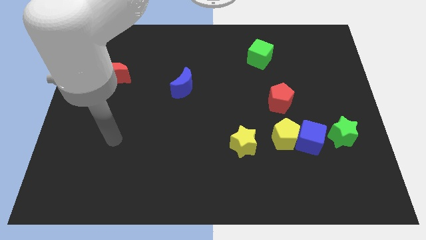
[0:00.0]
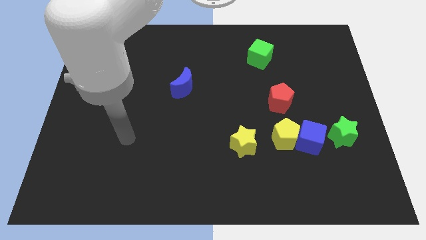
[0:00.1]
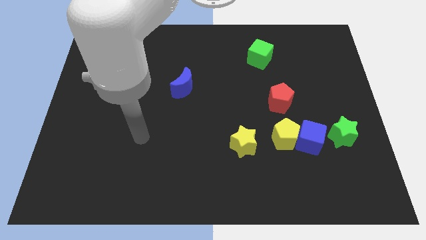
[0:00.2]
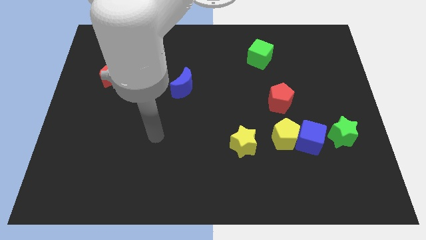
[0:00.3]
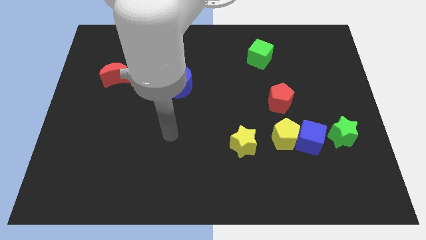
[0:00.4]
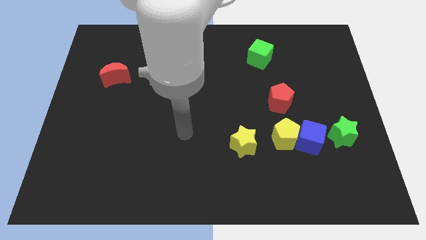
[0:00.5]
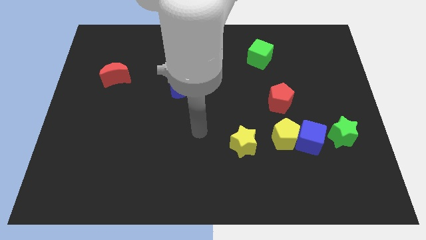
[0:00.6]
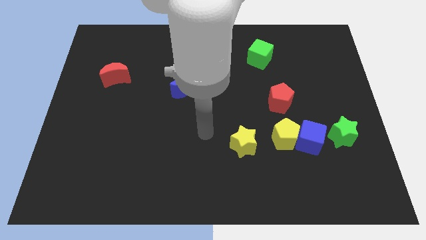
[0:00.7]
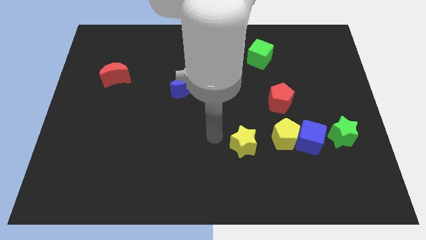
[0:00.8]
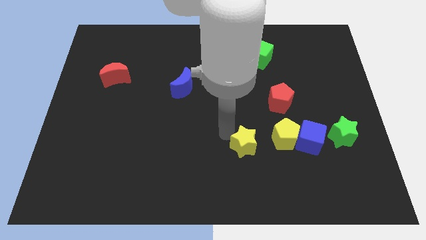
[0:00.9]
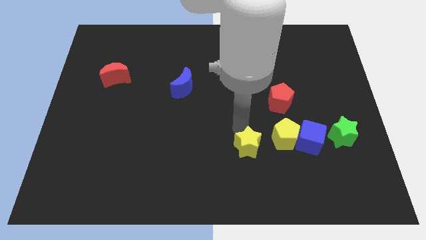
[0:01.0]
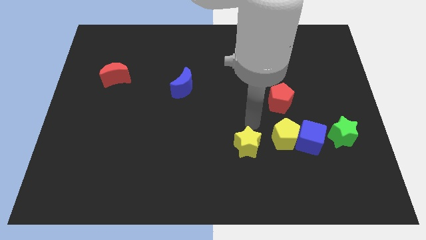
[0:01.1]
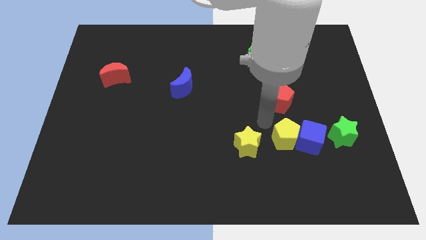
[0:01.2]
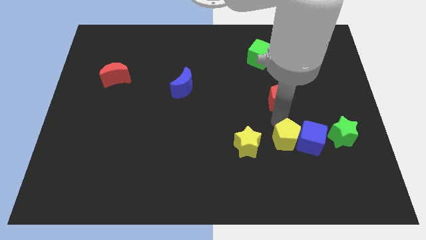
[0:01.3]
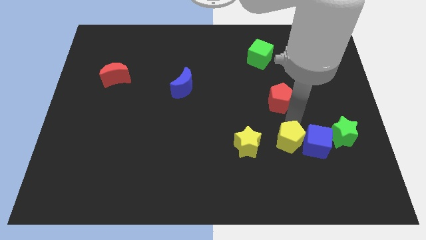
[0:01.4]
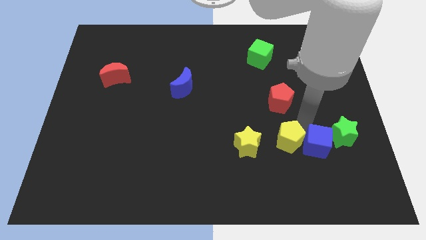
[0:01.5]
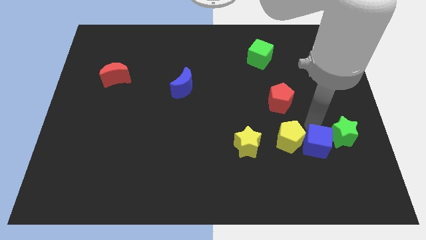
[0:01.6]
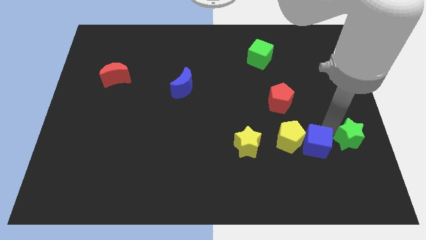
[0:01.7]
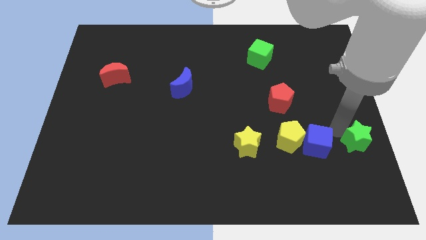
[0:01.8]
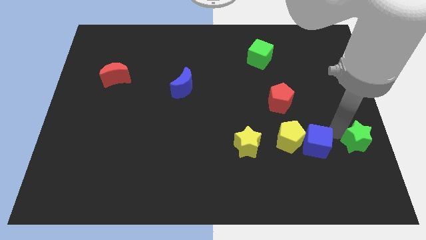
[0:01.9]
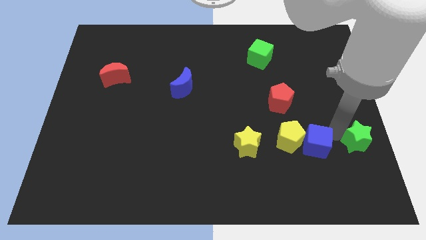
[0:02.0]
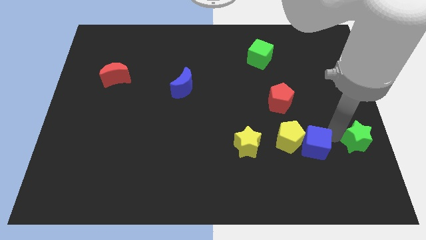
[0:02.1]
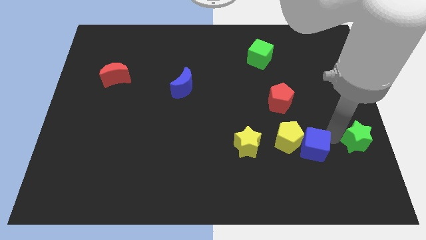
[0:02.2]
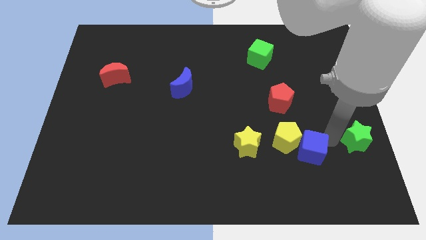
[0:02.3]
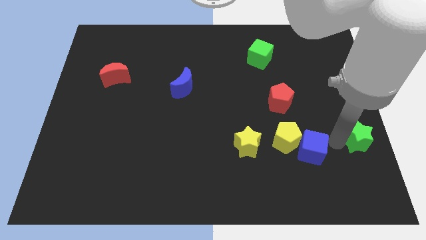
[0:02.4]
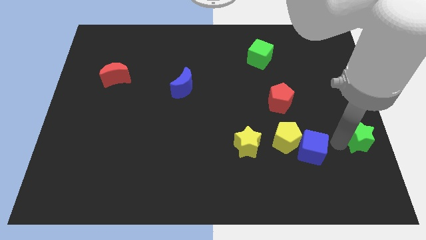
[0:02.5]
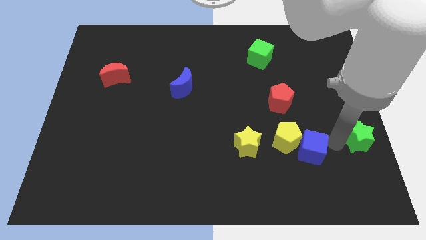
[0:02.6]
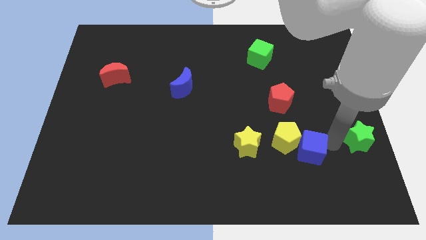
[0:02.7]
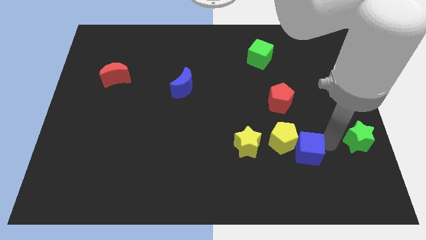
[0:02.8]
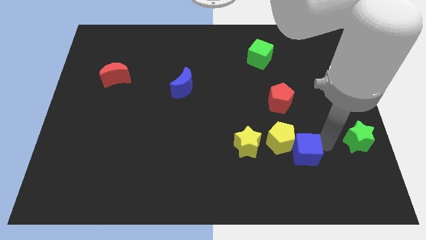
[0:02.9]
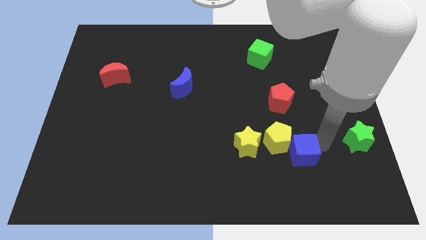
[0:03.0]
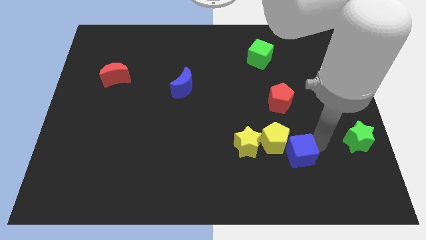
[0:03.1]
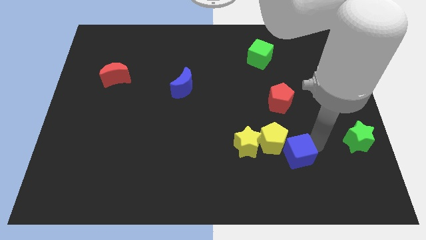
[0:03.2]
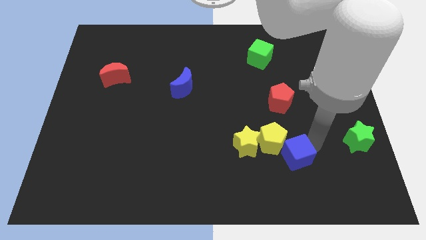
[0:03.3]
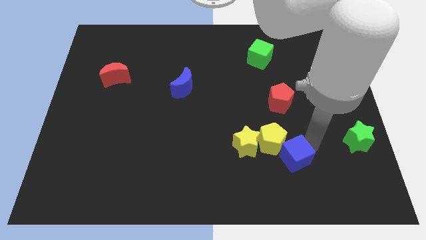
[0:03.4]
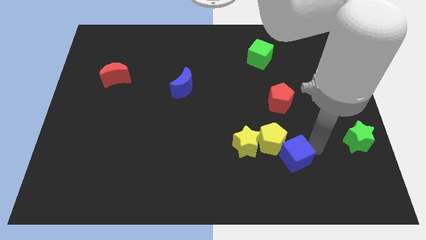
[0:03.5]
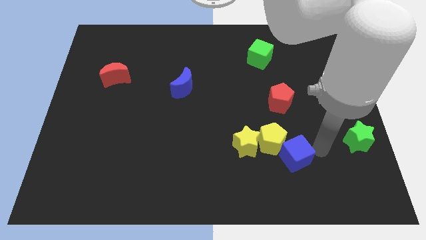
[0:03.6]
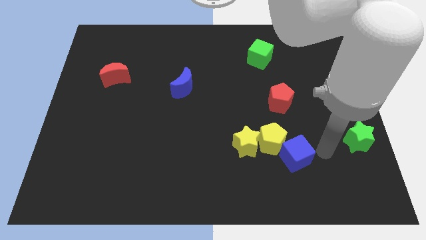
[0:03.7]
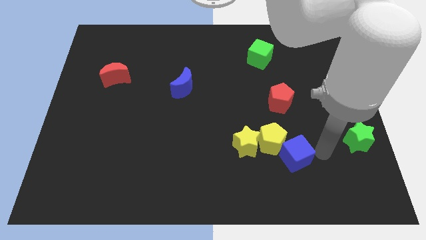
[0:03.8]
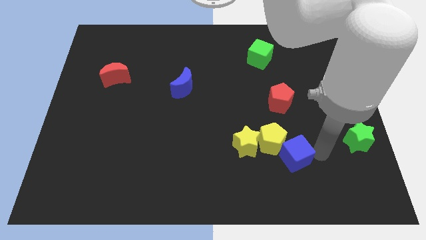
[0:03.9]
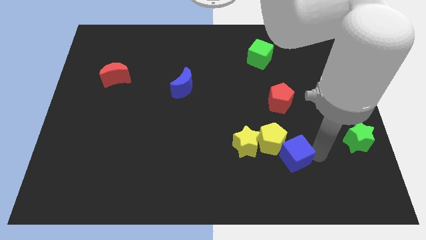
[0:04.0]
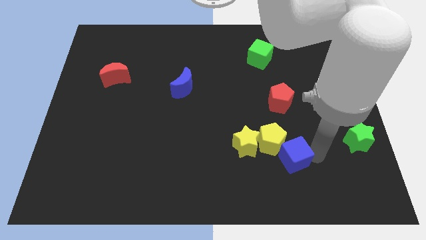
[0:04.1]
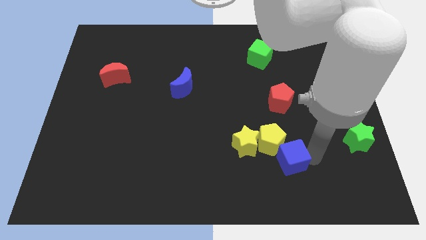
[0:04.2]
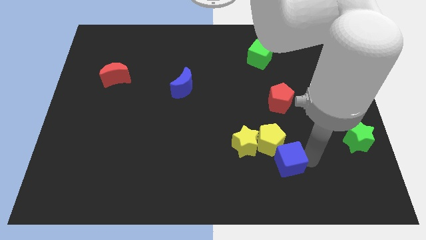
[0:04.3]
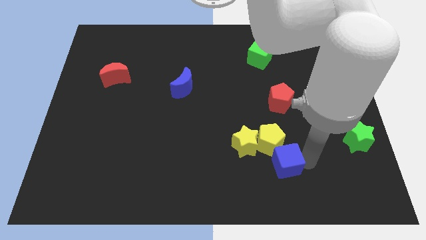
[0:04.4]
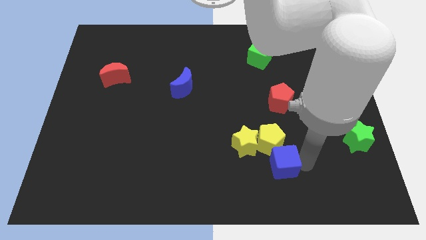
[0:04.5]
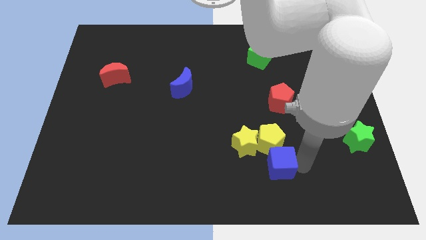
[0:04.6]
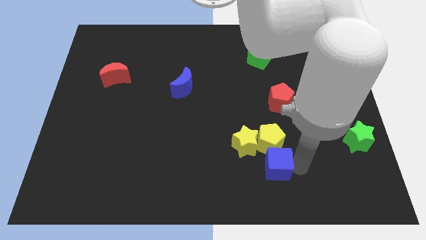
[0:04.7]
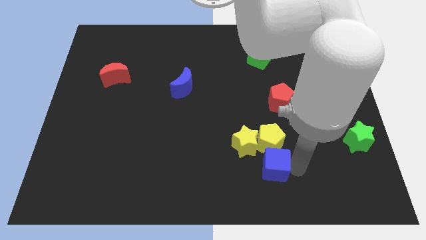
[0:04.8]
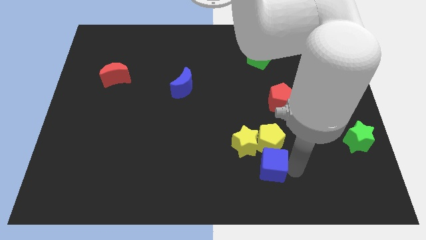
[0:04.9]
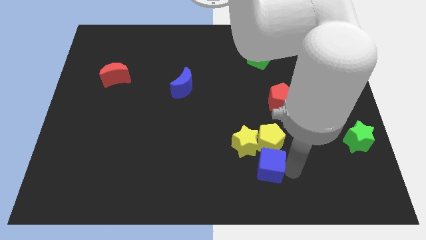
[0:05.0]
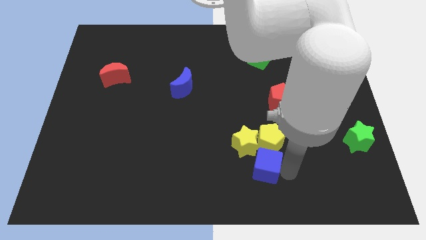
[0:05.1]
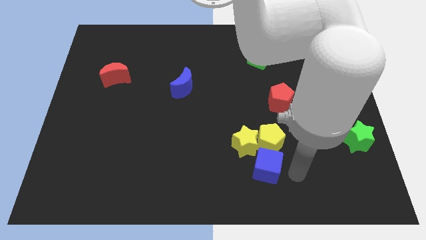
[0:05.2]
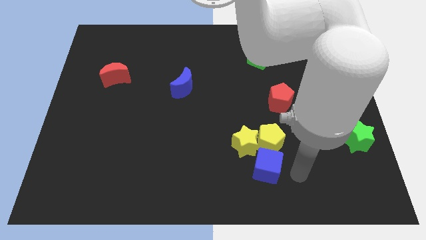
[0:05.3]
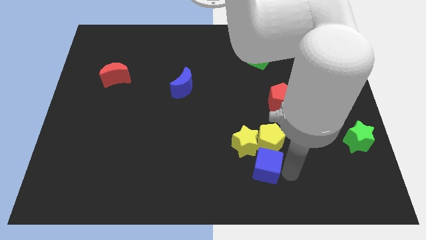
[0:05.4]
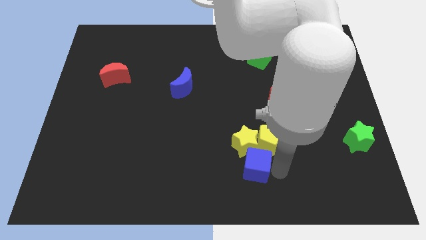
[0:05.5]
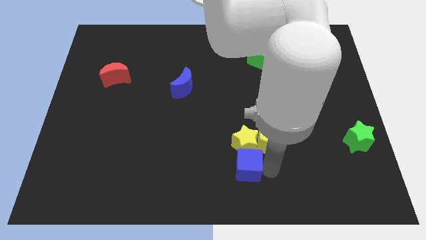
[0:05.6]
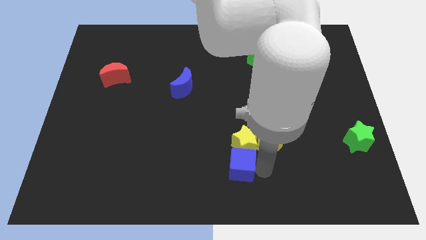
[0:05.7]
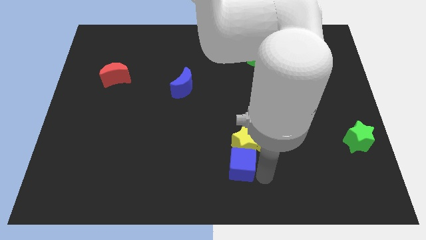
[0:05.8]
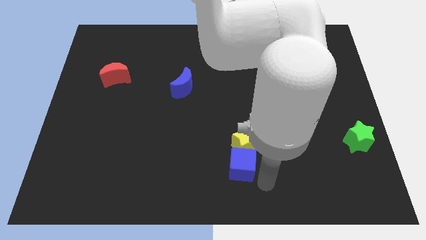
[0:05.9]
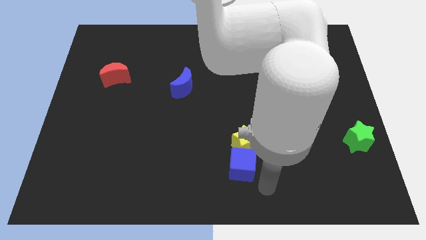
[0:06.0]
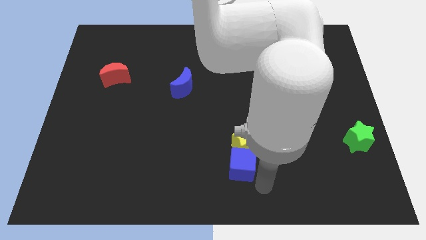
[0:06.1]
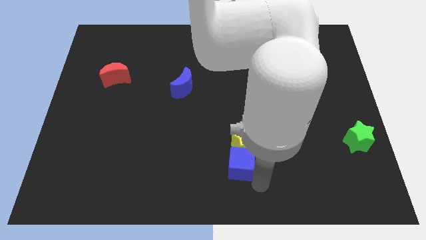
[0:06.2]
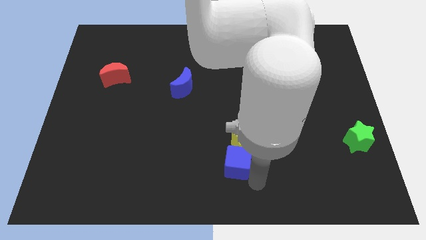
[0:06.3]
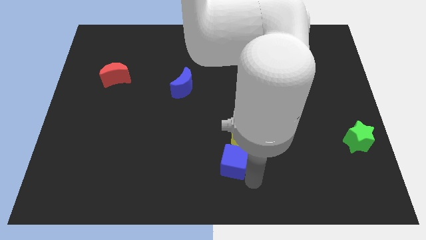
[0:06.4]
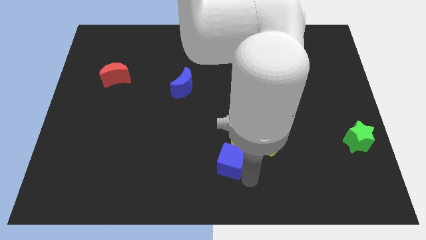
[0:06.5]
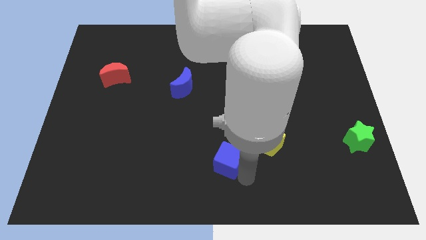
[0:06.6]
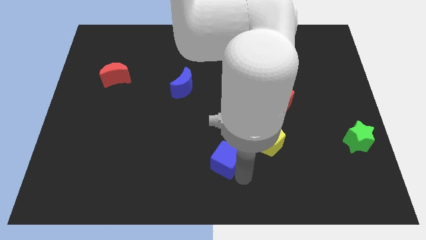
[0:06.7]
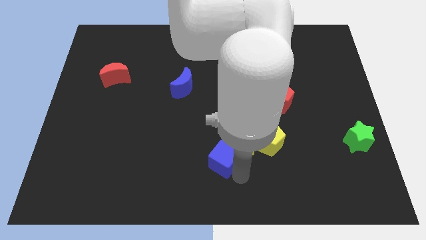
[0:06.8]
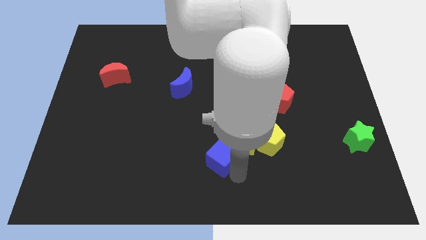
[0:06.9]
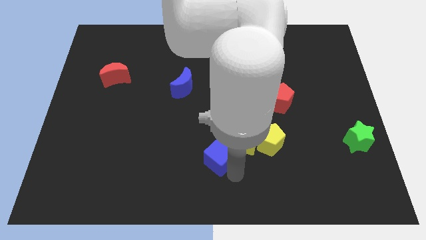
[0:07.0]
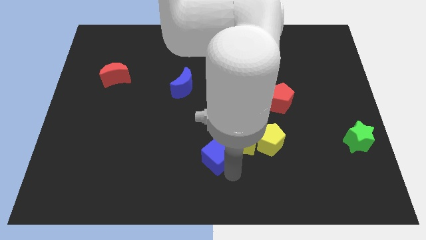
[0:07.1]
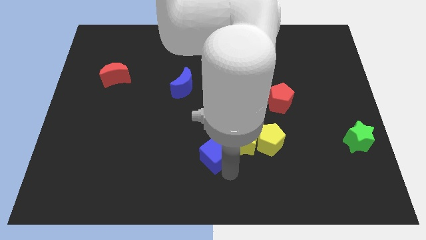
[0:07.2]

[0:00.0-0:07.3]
push the blue cube to the left

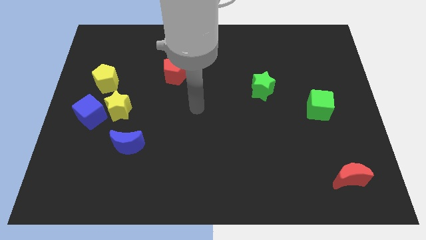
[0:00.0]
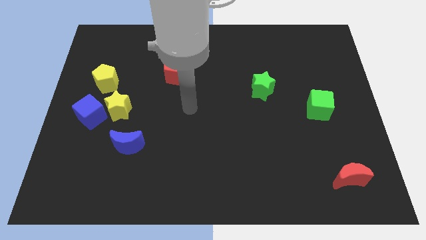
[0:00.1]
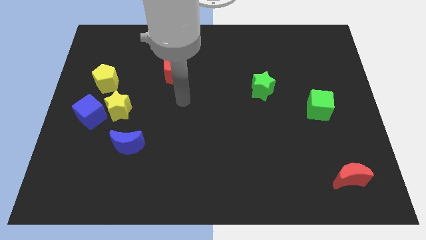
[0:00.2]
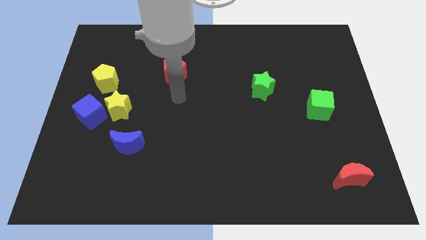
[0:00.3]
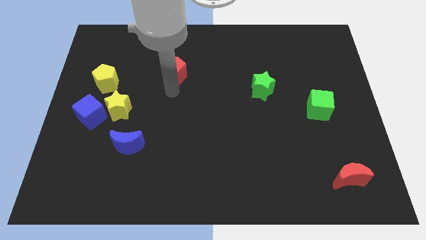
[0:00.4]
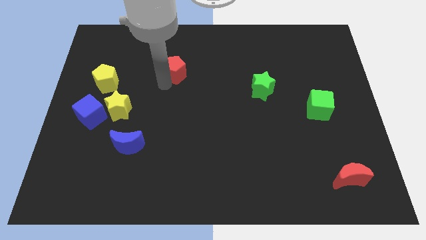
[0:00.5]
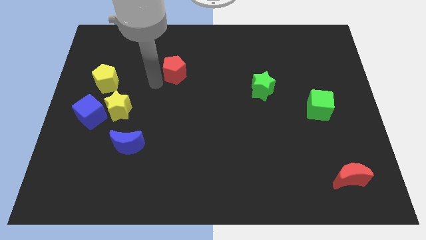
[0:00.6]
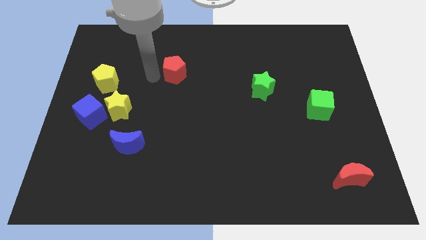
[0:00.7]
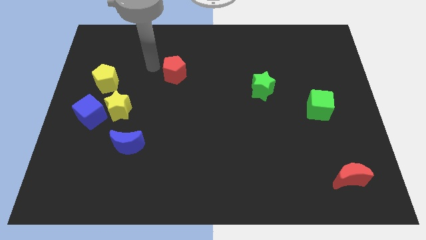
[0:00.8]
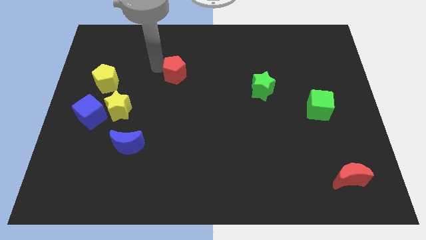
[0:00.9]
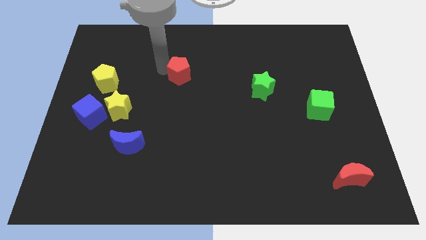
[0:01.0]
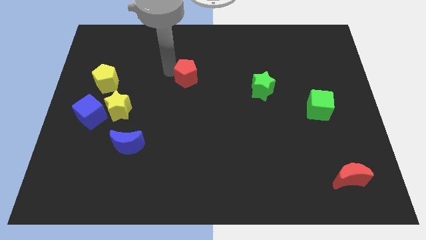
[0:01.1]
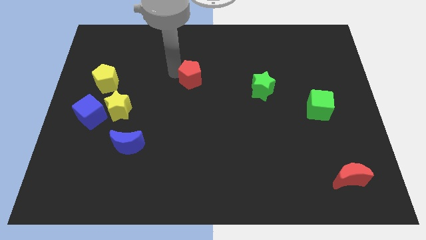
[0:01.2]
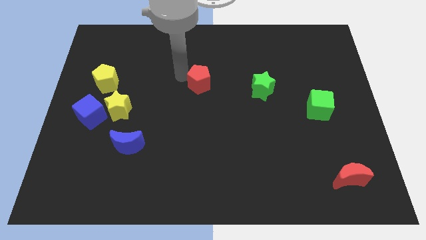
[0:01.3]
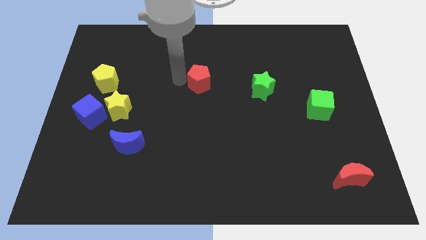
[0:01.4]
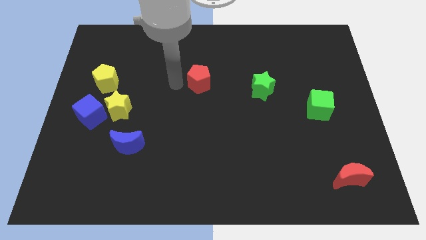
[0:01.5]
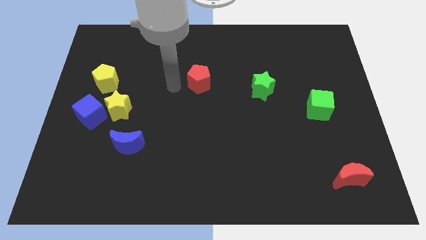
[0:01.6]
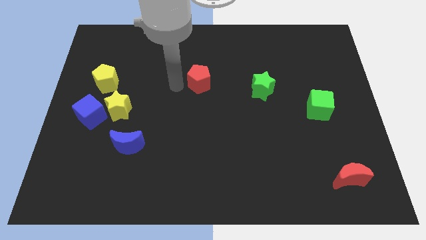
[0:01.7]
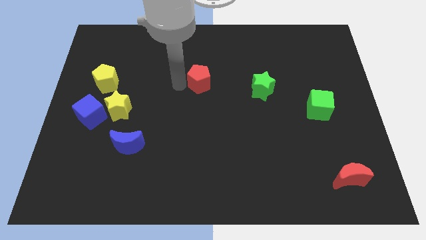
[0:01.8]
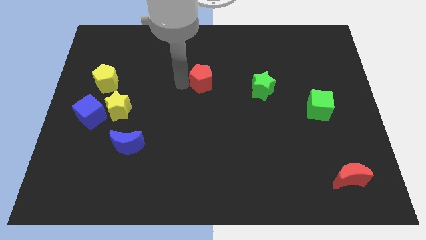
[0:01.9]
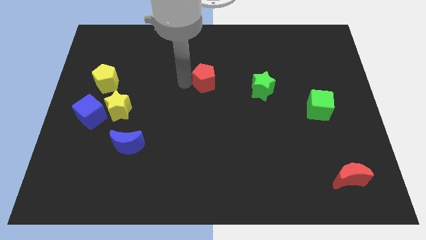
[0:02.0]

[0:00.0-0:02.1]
push the red pentagon somewhat right
